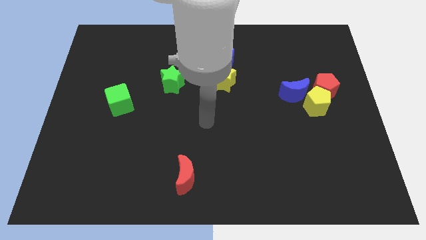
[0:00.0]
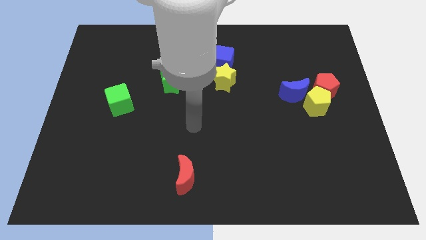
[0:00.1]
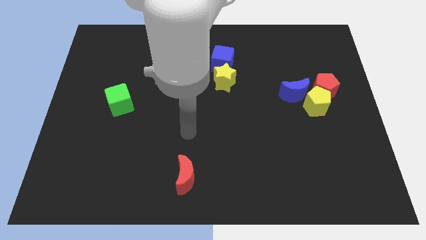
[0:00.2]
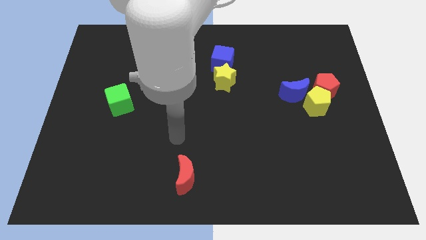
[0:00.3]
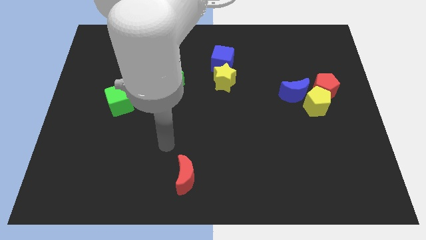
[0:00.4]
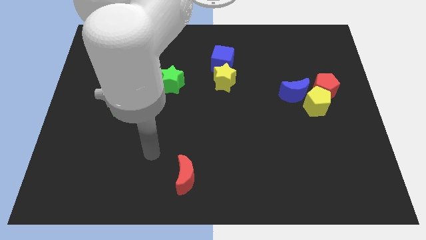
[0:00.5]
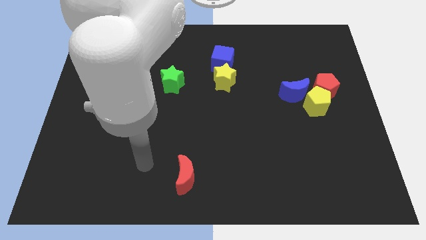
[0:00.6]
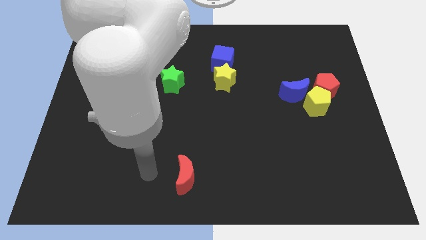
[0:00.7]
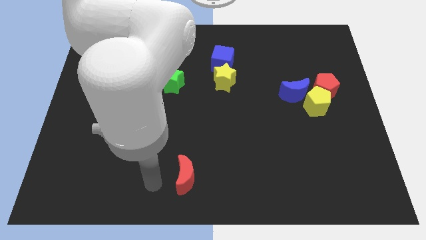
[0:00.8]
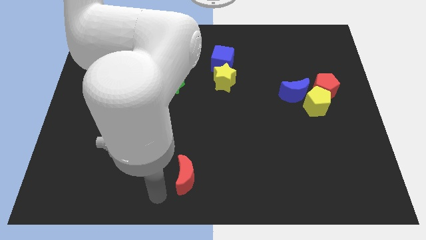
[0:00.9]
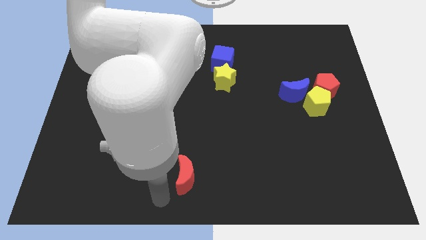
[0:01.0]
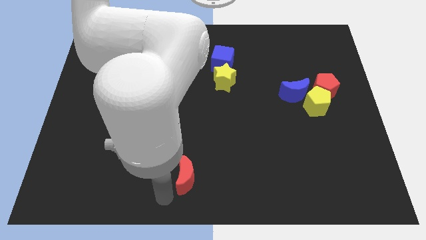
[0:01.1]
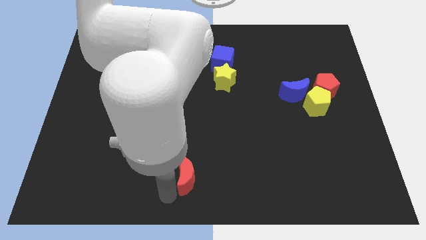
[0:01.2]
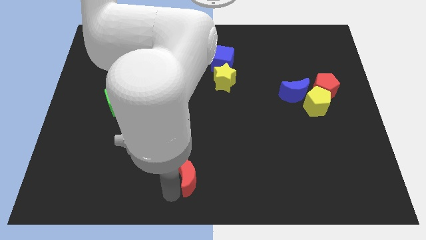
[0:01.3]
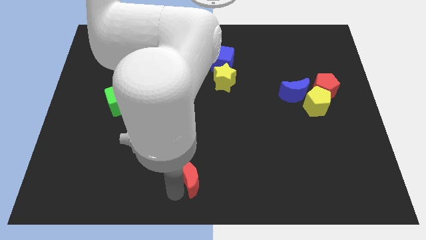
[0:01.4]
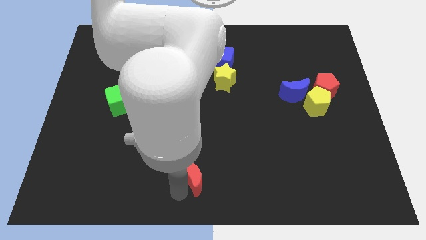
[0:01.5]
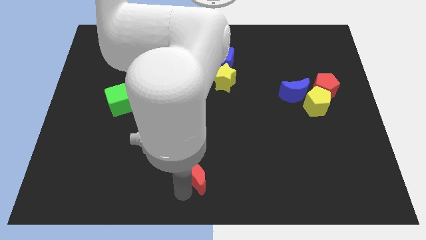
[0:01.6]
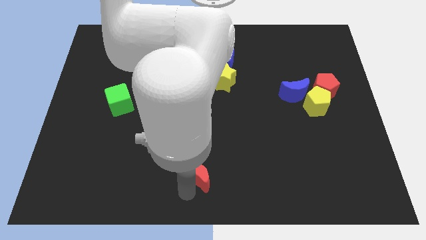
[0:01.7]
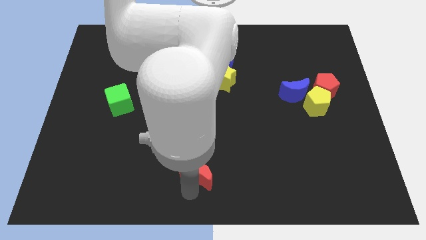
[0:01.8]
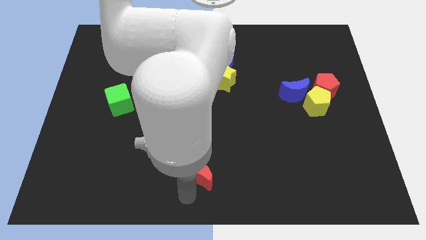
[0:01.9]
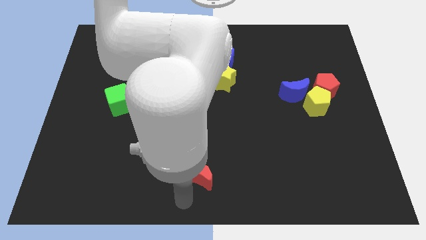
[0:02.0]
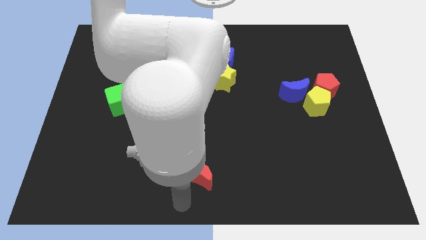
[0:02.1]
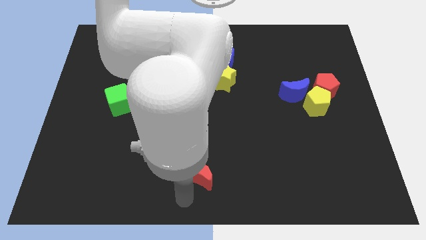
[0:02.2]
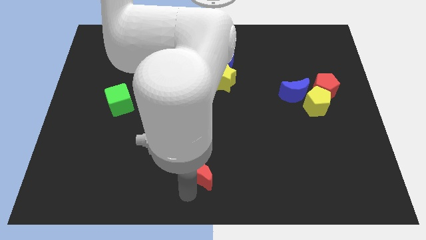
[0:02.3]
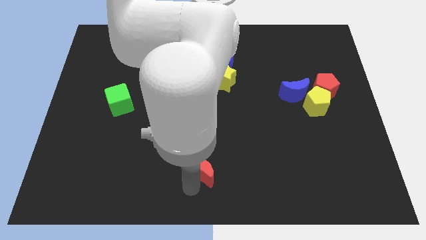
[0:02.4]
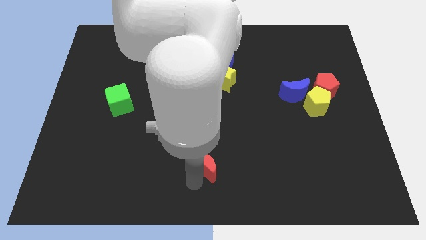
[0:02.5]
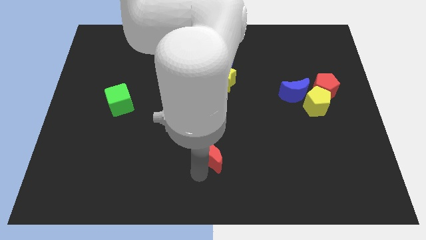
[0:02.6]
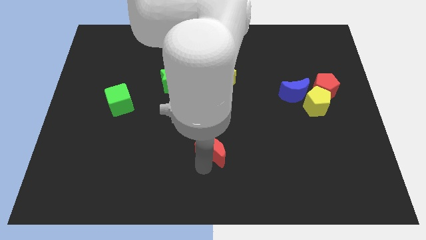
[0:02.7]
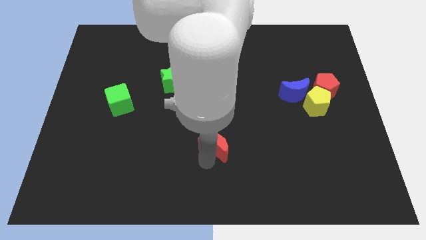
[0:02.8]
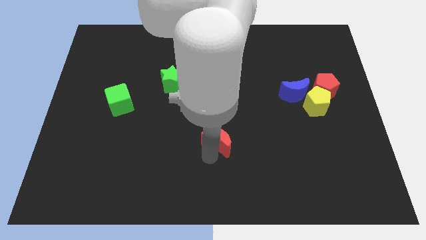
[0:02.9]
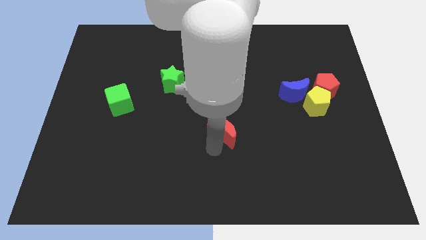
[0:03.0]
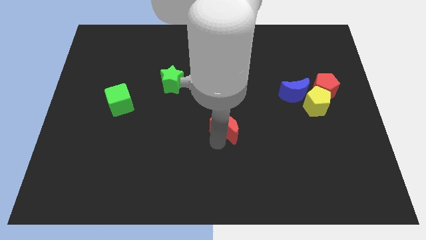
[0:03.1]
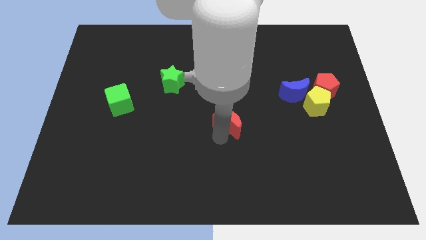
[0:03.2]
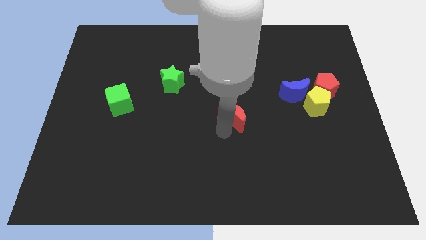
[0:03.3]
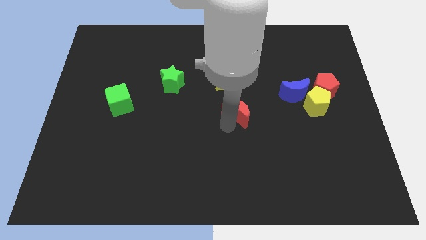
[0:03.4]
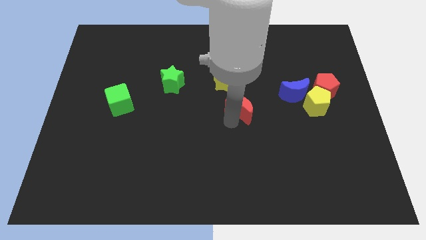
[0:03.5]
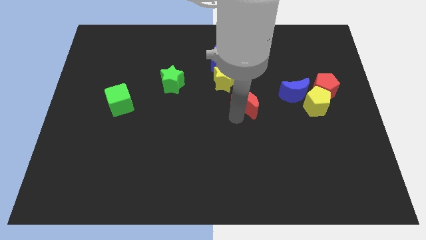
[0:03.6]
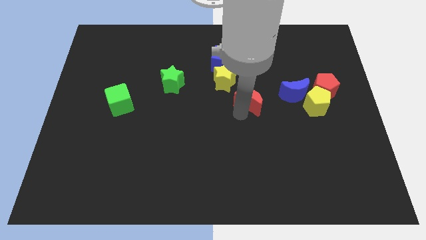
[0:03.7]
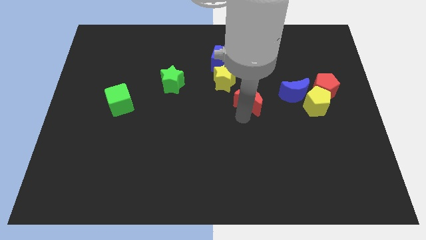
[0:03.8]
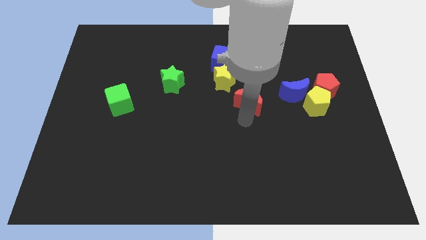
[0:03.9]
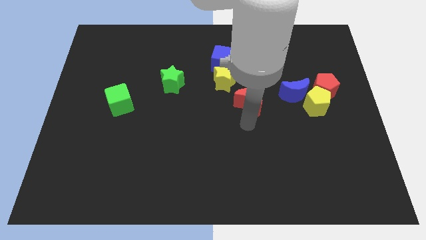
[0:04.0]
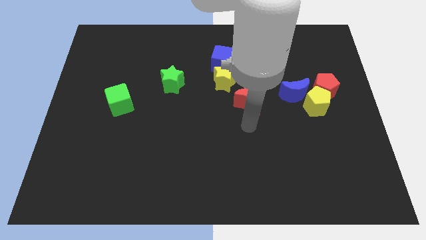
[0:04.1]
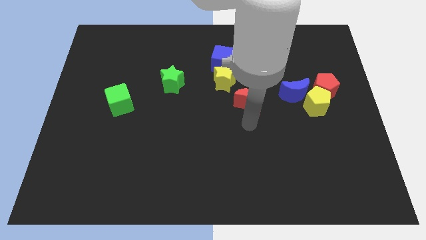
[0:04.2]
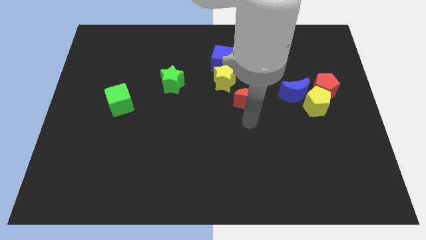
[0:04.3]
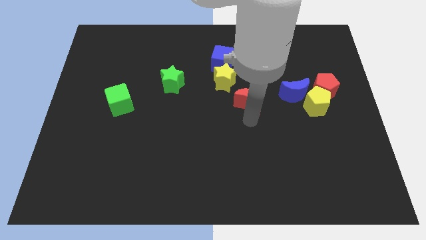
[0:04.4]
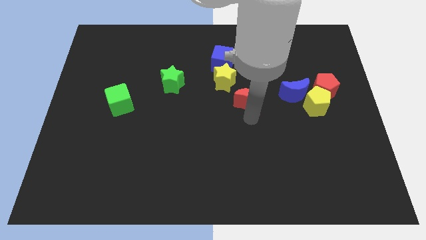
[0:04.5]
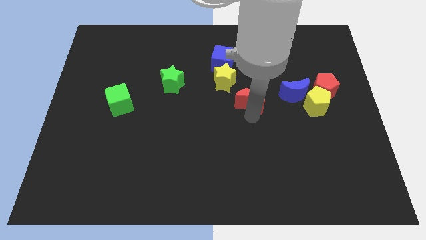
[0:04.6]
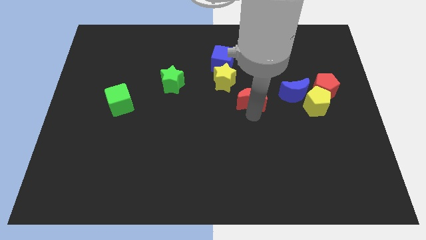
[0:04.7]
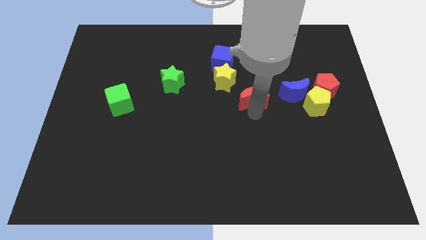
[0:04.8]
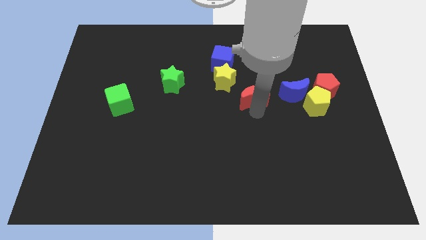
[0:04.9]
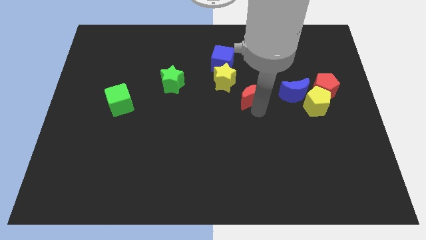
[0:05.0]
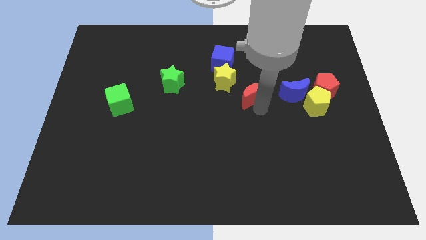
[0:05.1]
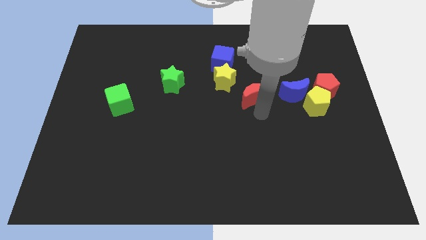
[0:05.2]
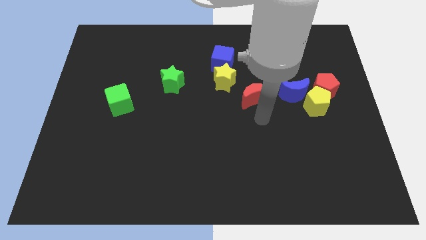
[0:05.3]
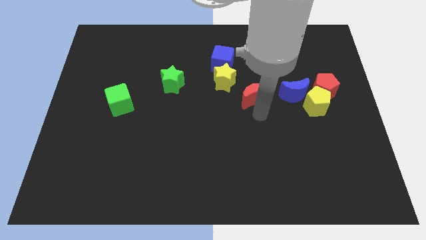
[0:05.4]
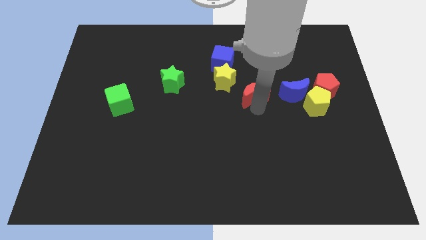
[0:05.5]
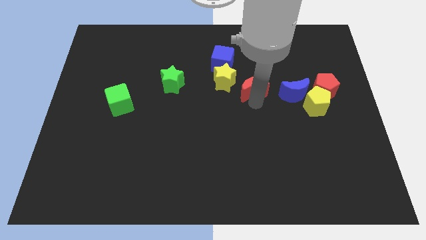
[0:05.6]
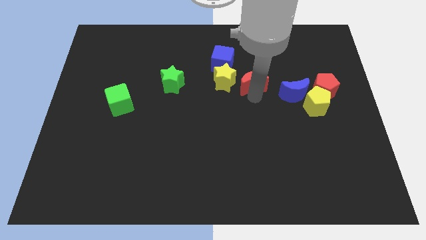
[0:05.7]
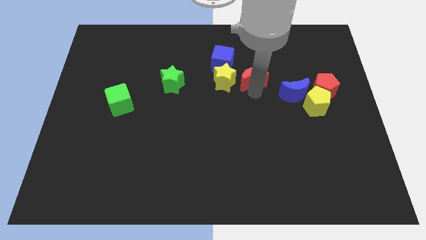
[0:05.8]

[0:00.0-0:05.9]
move the red moon to the top right side of the yellow star

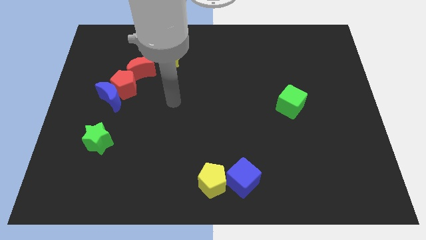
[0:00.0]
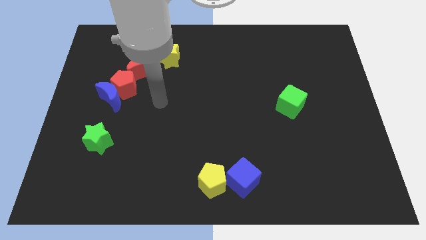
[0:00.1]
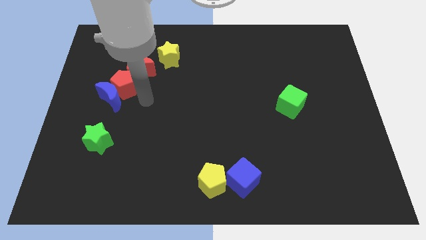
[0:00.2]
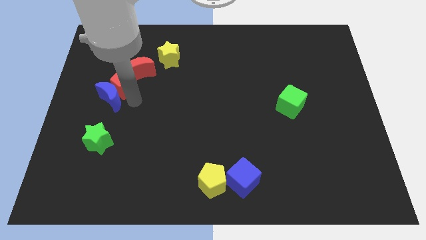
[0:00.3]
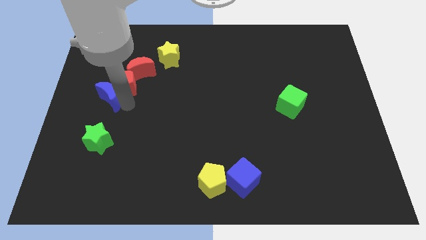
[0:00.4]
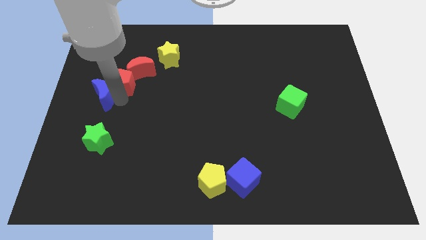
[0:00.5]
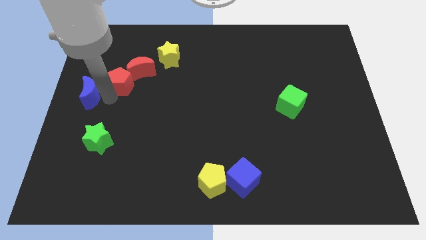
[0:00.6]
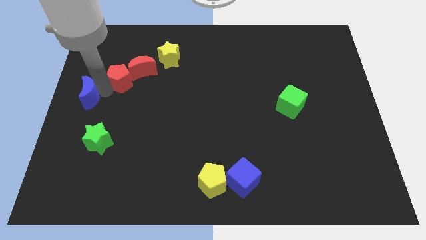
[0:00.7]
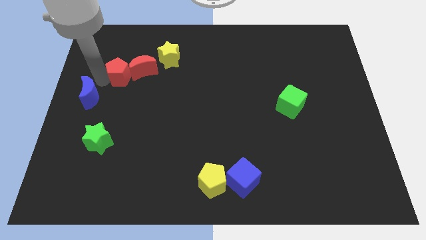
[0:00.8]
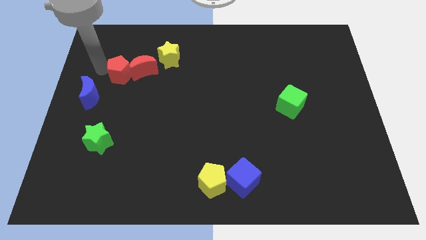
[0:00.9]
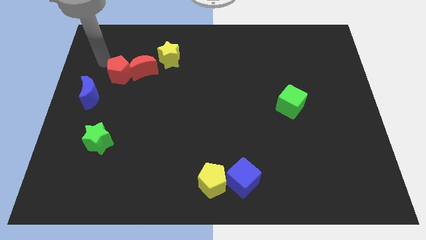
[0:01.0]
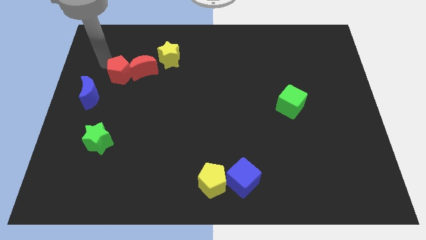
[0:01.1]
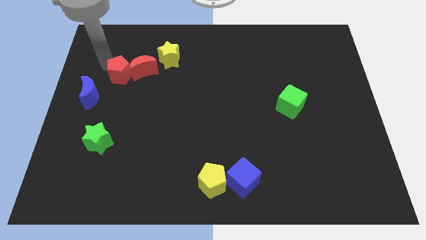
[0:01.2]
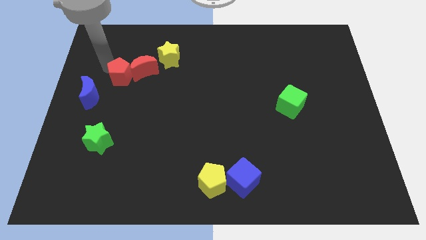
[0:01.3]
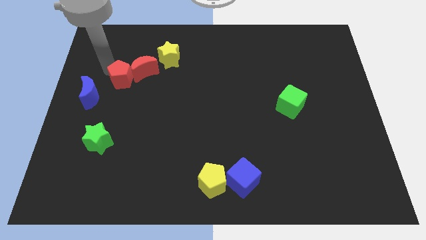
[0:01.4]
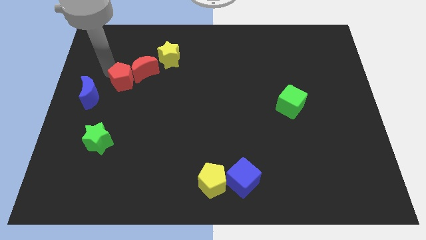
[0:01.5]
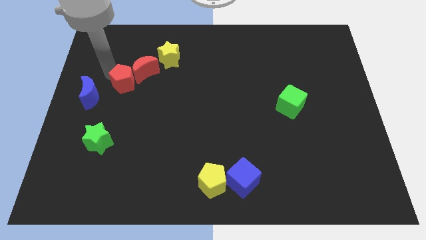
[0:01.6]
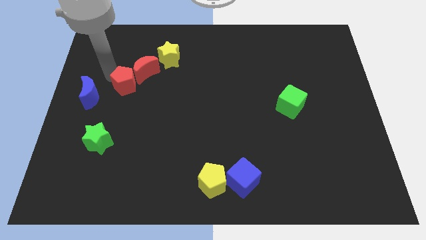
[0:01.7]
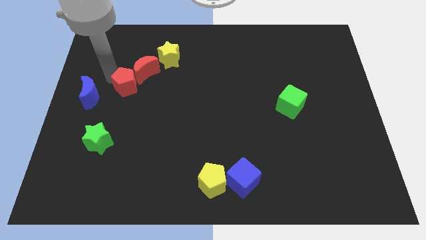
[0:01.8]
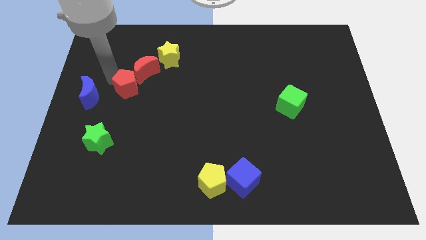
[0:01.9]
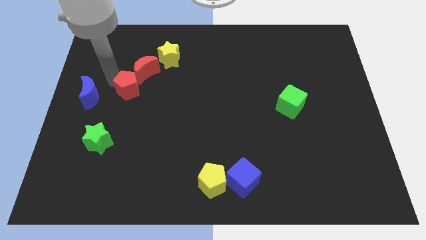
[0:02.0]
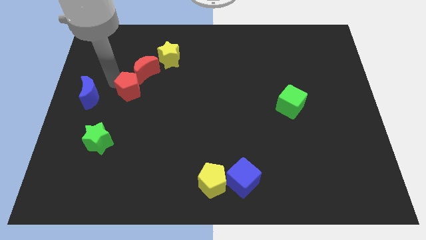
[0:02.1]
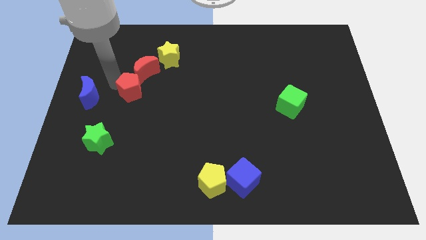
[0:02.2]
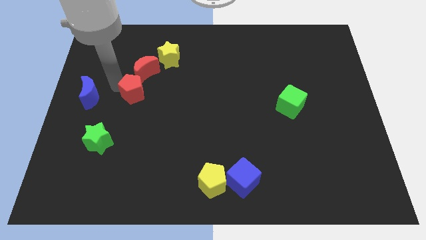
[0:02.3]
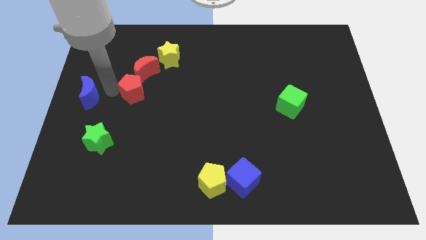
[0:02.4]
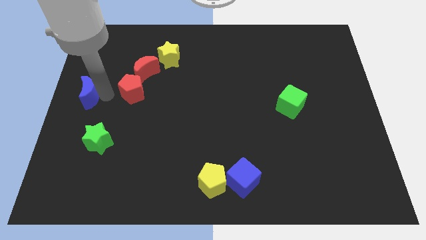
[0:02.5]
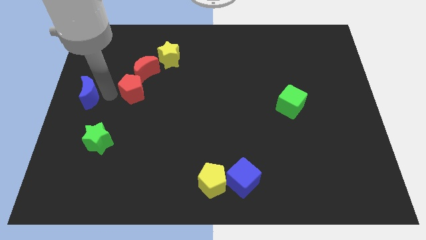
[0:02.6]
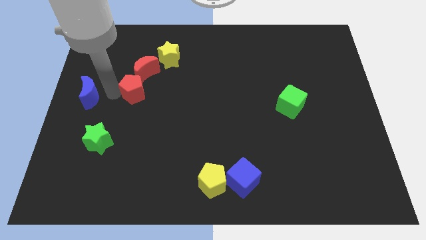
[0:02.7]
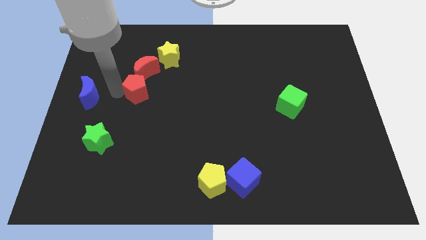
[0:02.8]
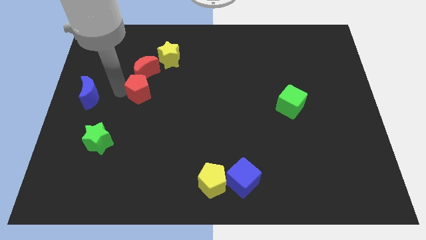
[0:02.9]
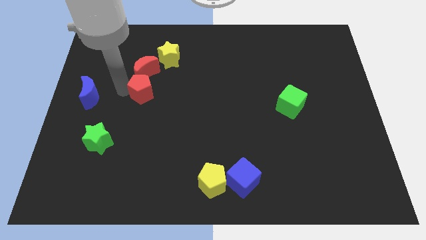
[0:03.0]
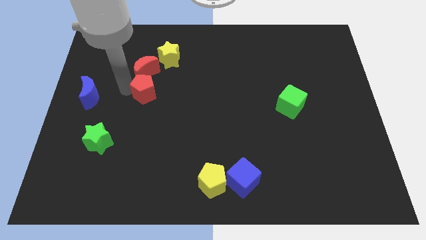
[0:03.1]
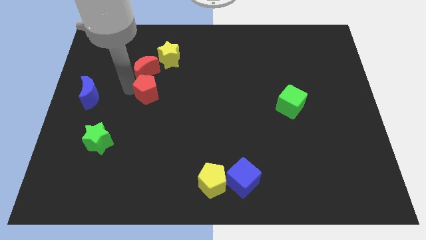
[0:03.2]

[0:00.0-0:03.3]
put the red pentagon to the bottom of the yellow star
